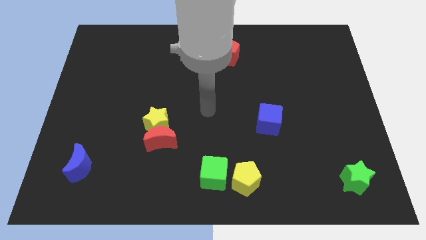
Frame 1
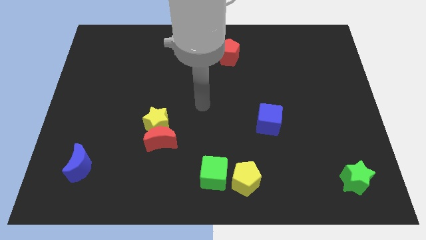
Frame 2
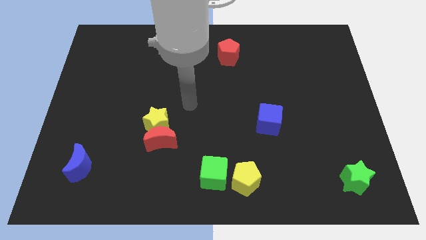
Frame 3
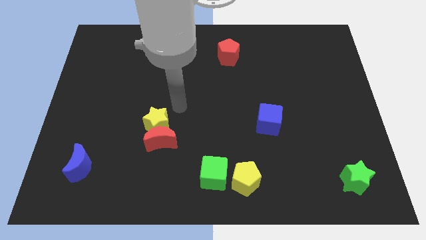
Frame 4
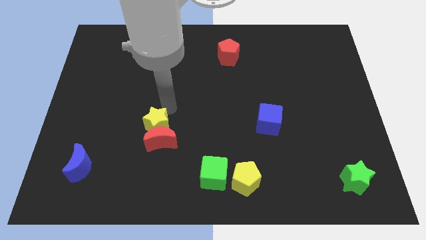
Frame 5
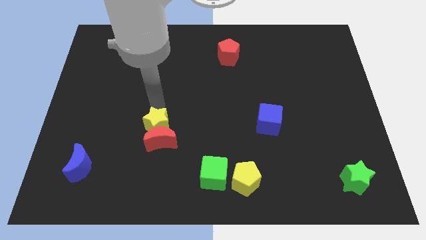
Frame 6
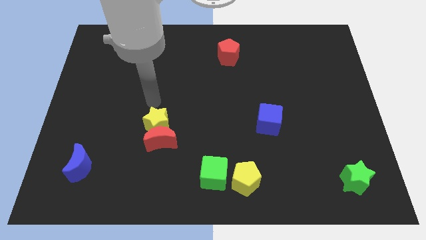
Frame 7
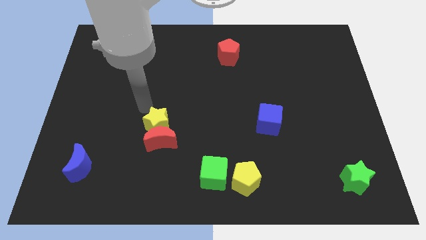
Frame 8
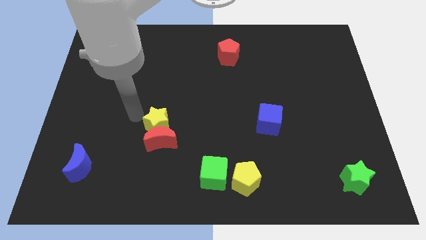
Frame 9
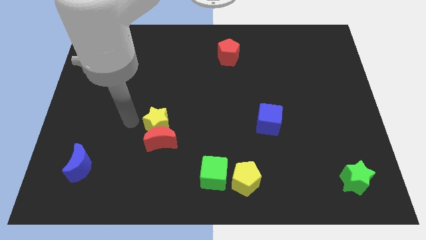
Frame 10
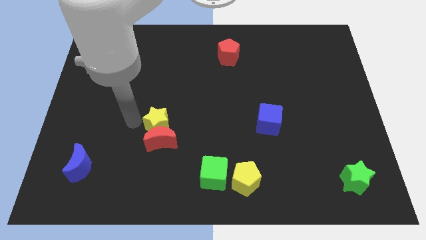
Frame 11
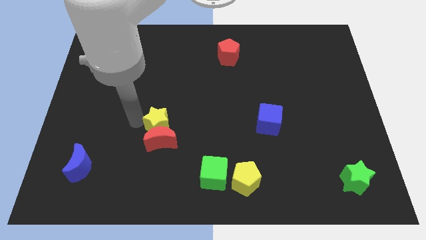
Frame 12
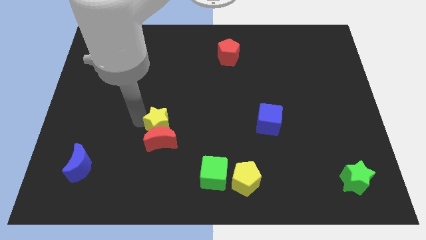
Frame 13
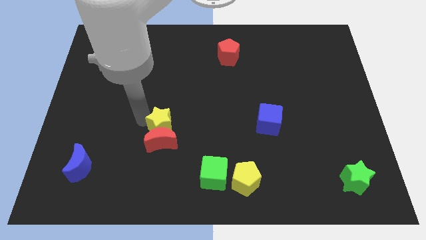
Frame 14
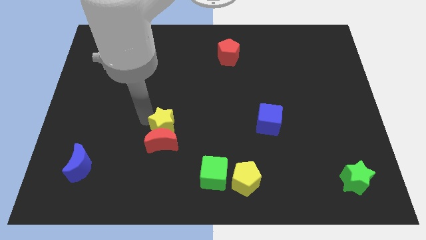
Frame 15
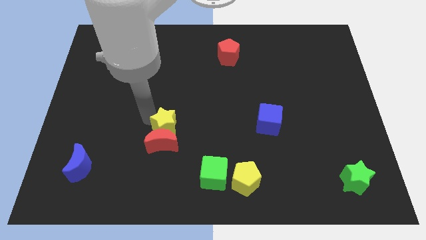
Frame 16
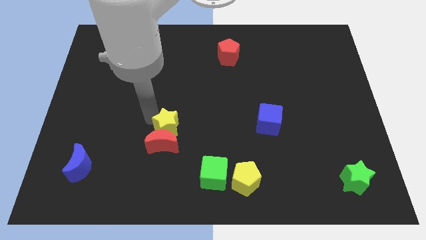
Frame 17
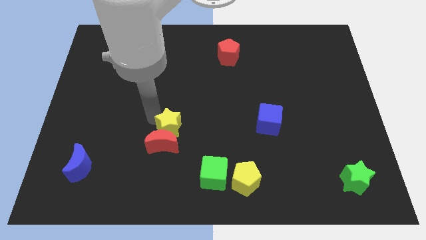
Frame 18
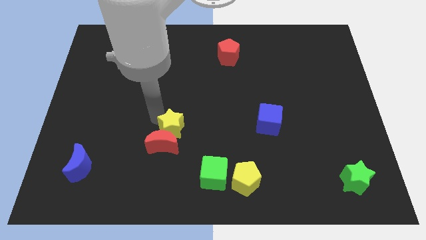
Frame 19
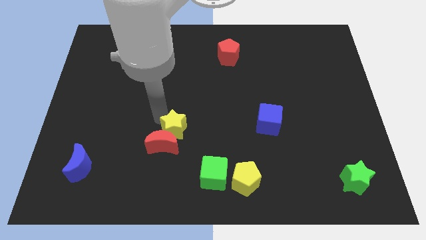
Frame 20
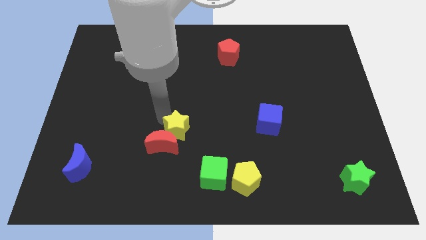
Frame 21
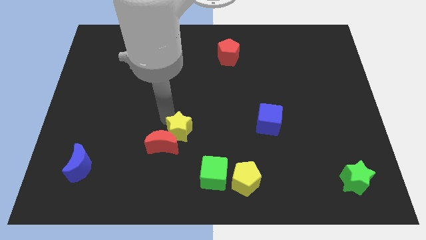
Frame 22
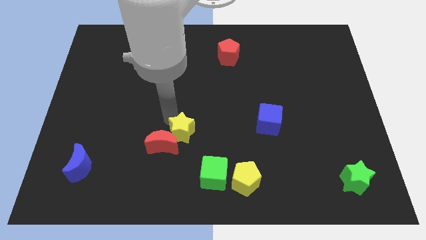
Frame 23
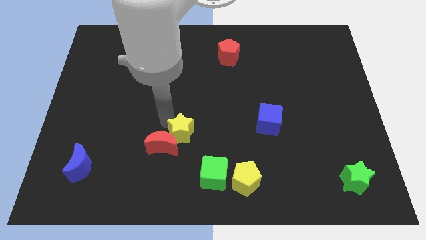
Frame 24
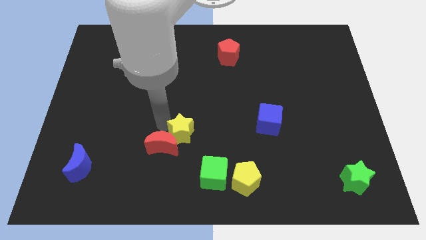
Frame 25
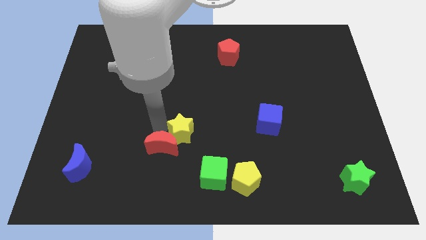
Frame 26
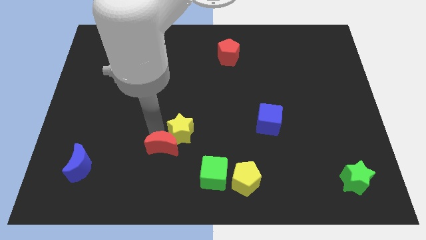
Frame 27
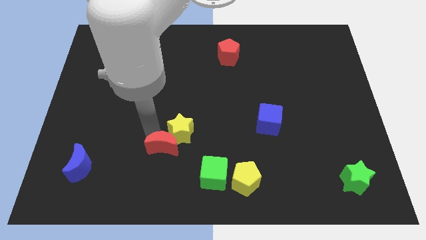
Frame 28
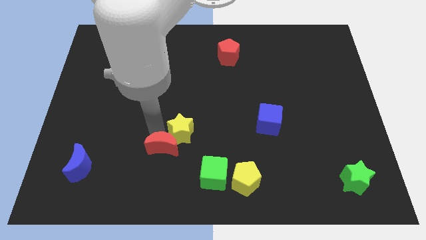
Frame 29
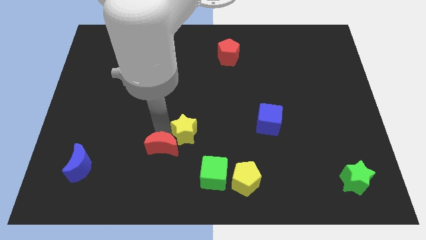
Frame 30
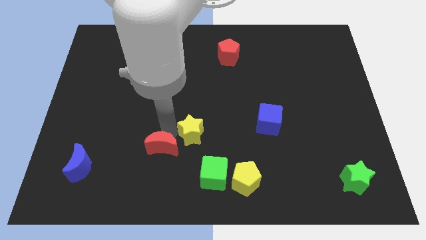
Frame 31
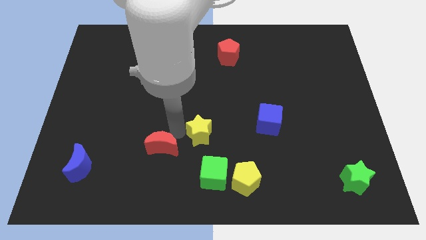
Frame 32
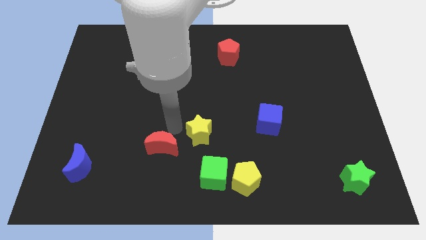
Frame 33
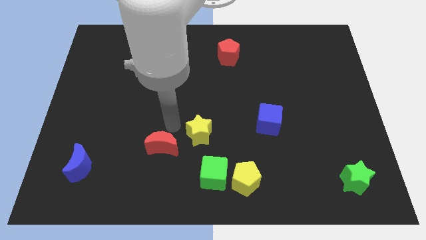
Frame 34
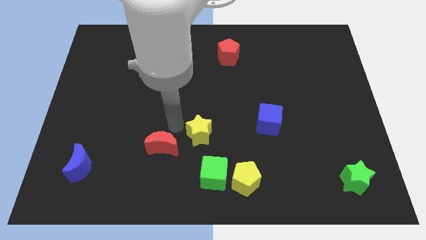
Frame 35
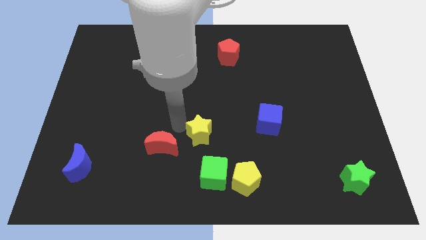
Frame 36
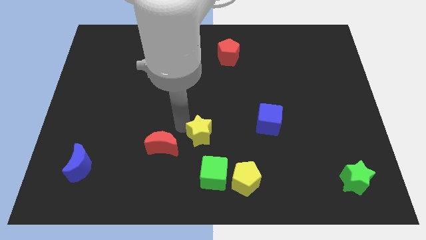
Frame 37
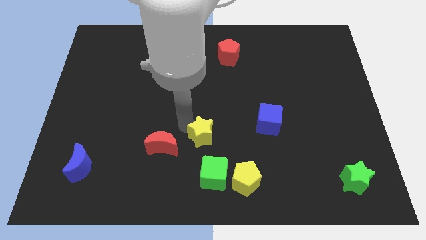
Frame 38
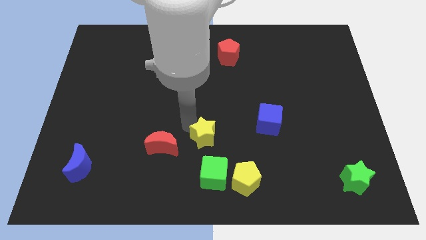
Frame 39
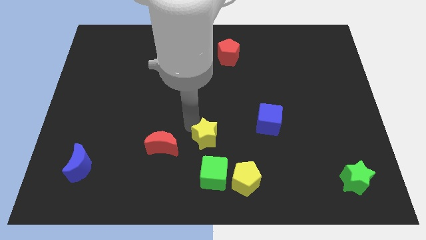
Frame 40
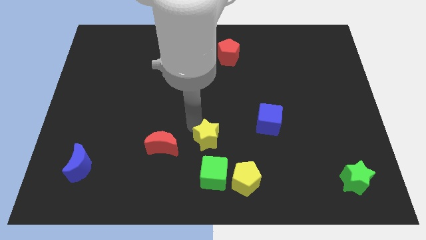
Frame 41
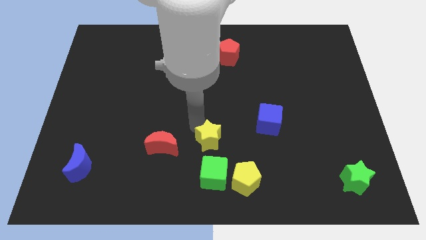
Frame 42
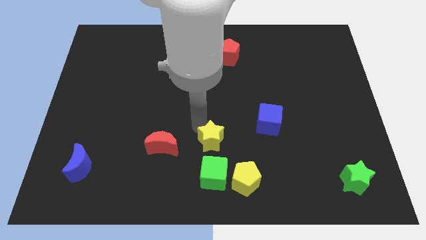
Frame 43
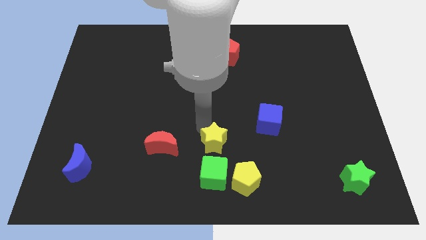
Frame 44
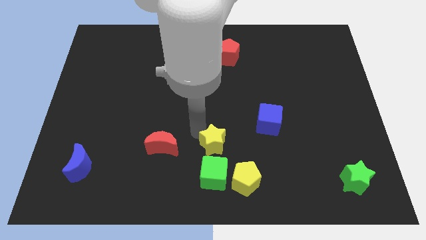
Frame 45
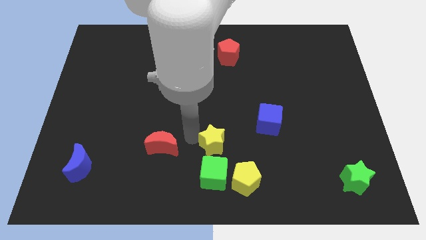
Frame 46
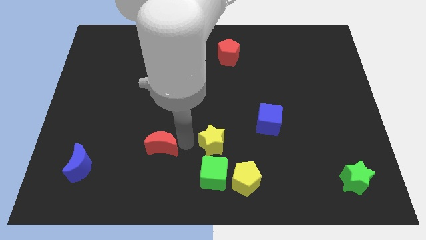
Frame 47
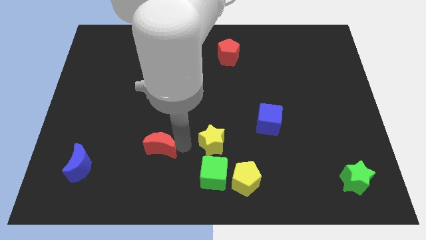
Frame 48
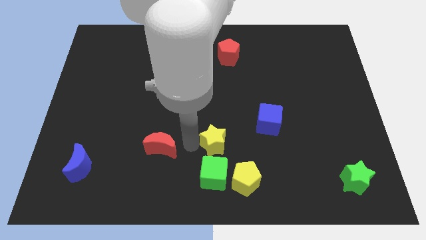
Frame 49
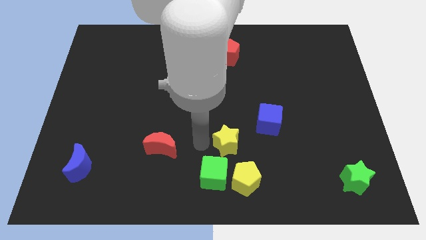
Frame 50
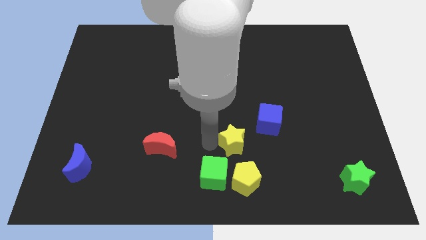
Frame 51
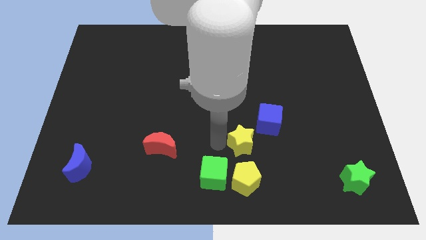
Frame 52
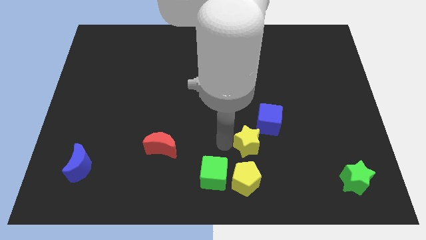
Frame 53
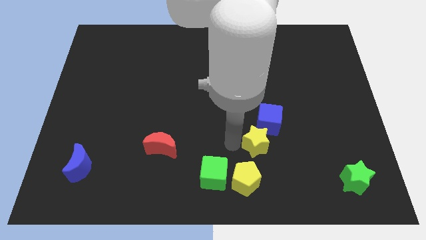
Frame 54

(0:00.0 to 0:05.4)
push the yellow star right

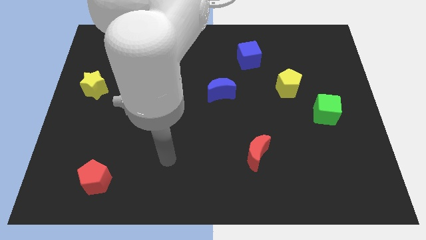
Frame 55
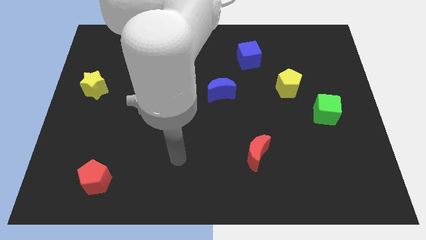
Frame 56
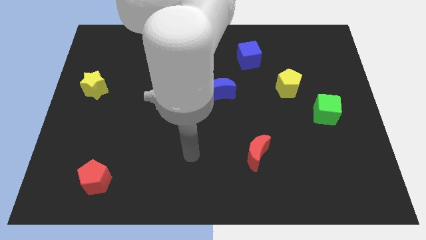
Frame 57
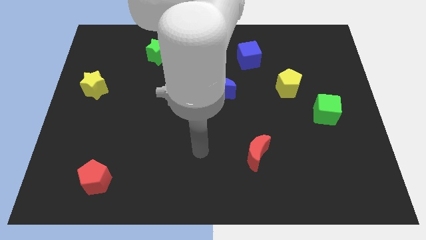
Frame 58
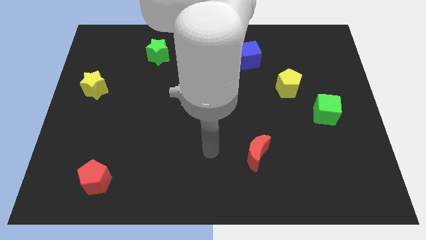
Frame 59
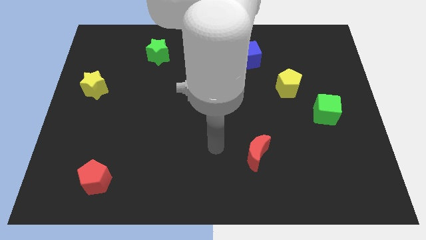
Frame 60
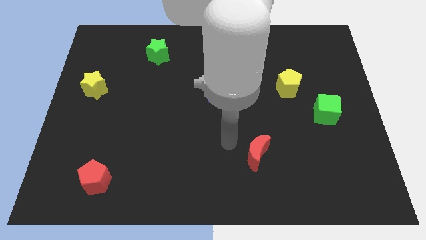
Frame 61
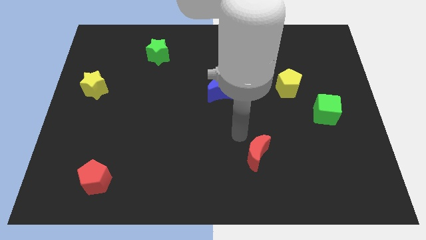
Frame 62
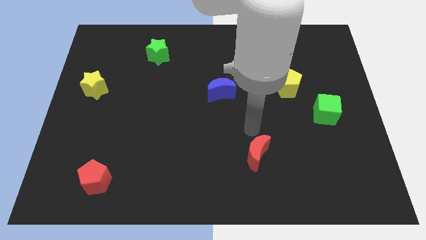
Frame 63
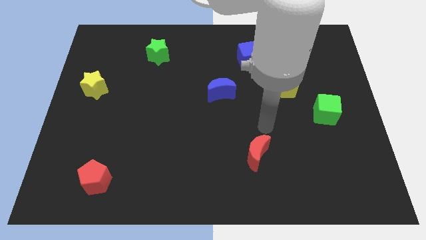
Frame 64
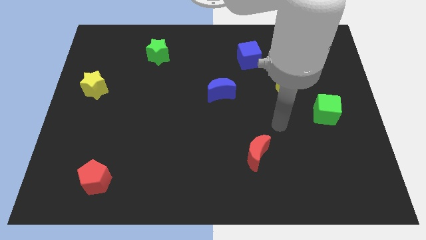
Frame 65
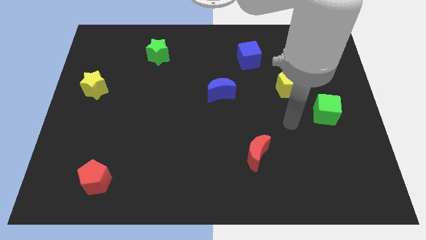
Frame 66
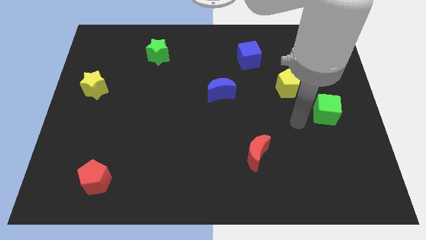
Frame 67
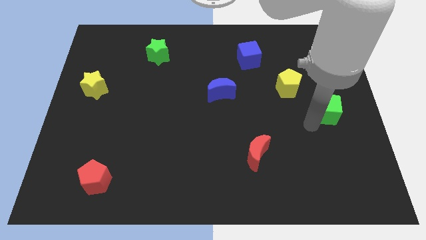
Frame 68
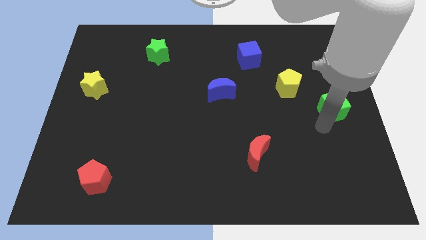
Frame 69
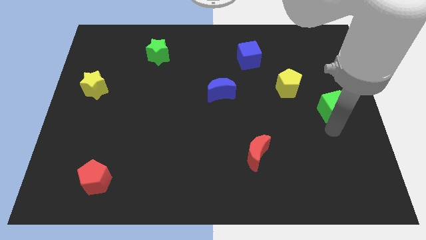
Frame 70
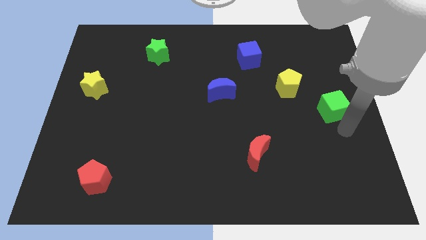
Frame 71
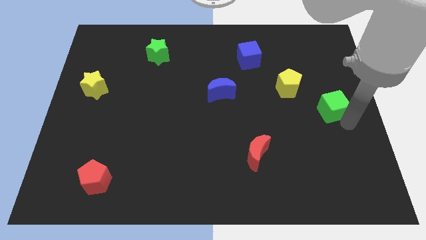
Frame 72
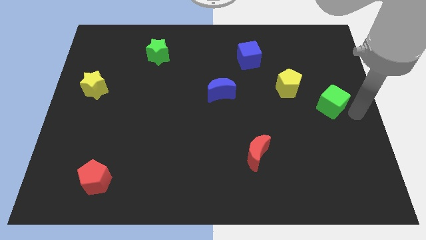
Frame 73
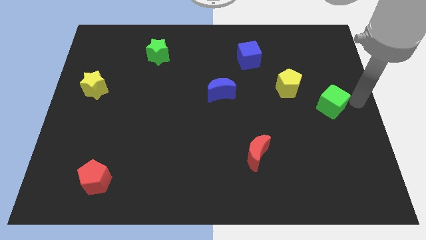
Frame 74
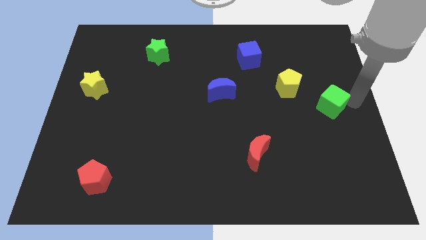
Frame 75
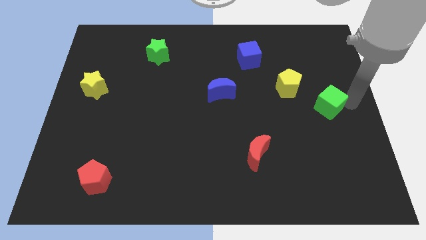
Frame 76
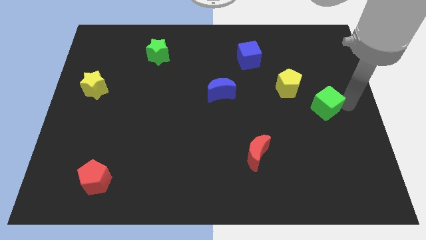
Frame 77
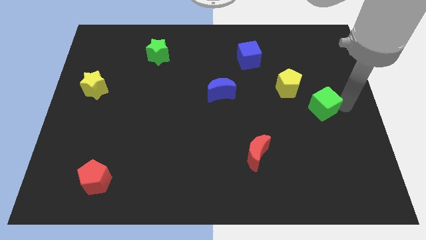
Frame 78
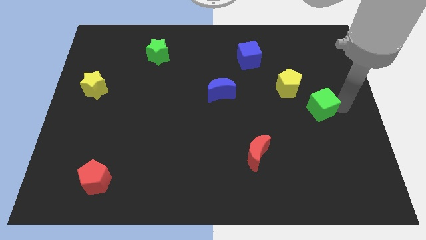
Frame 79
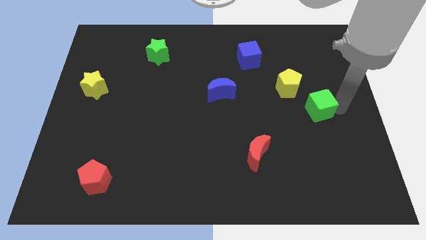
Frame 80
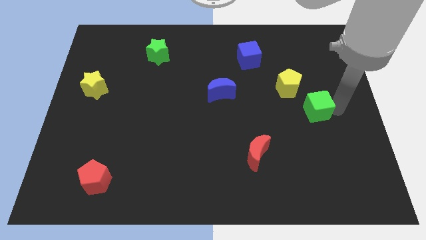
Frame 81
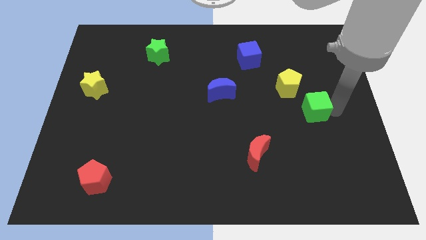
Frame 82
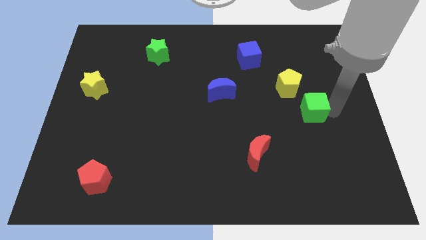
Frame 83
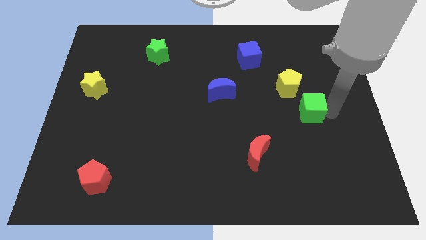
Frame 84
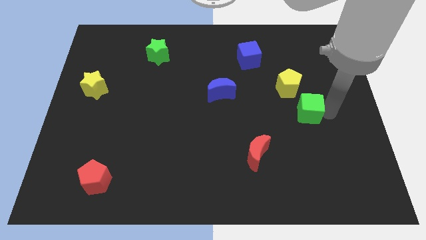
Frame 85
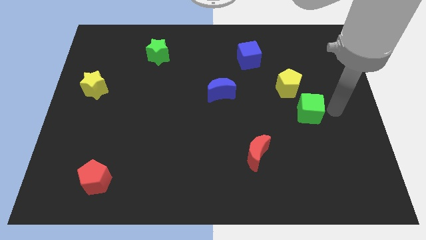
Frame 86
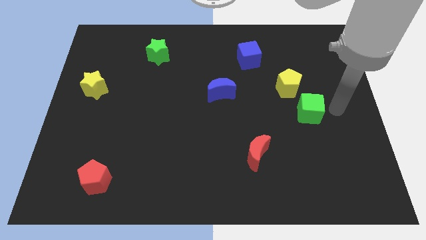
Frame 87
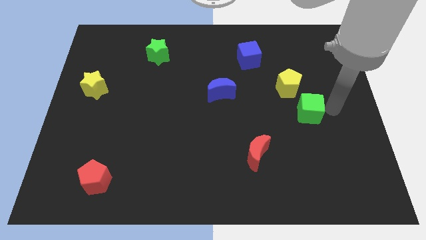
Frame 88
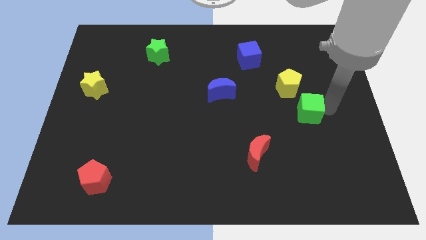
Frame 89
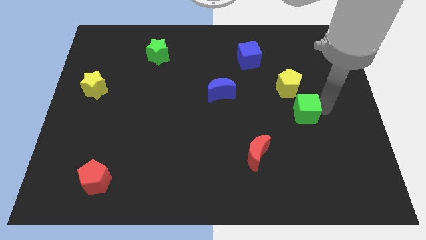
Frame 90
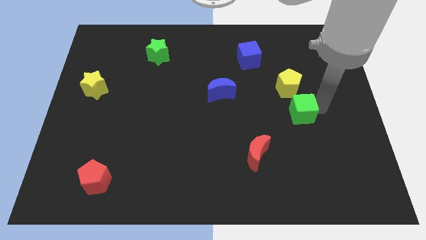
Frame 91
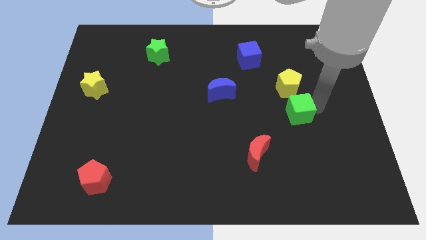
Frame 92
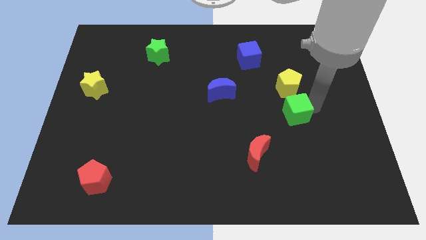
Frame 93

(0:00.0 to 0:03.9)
move the green cube slightly to the left
